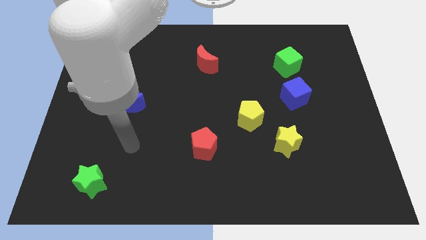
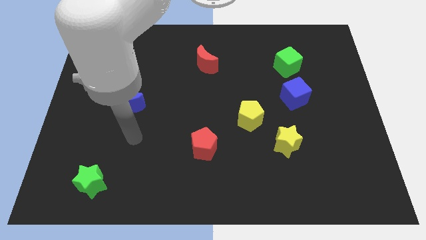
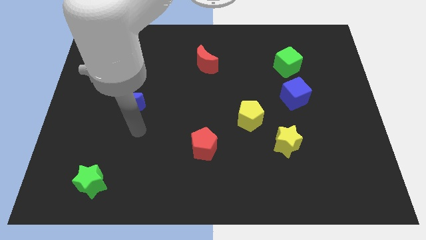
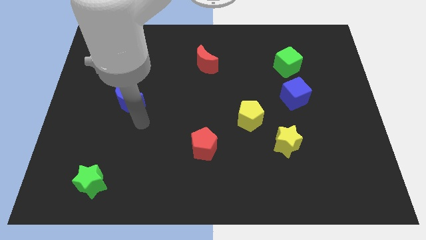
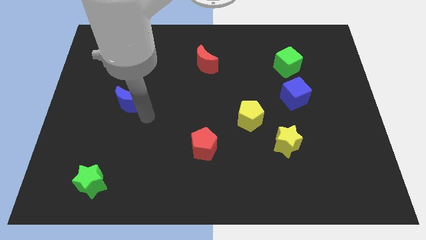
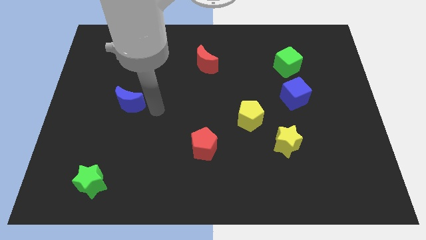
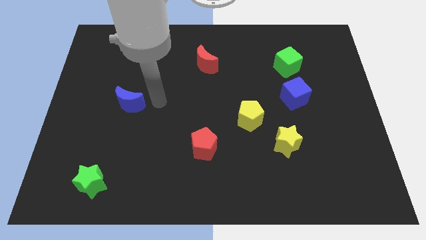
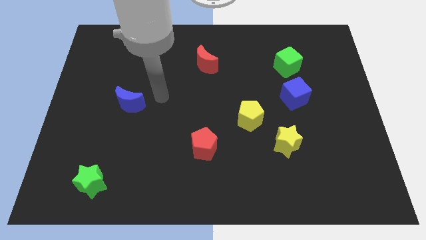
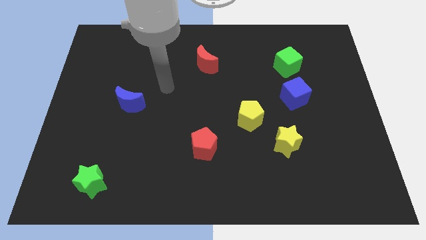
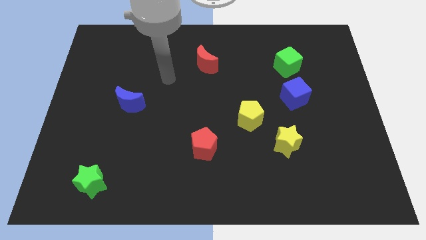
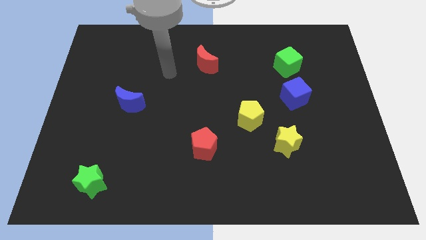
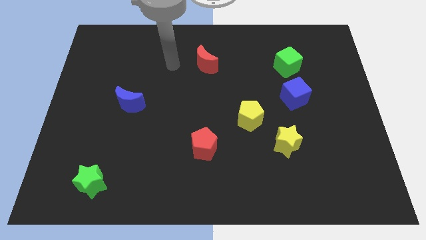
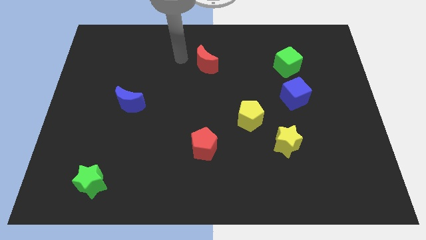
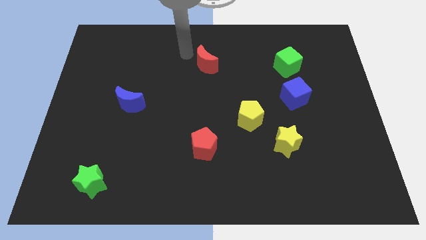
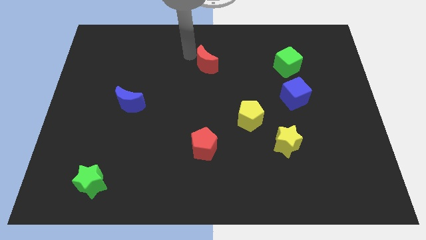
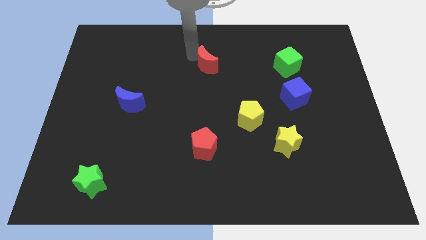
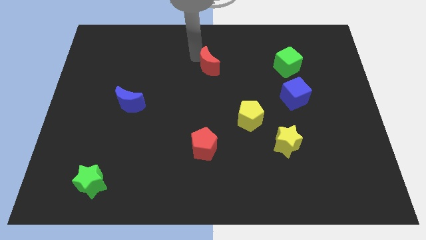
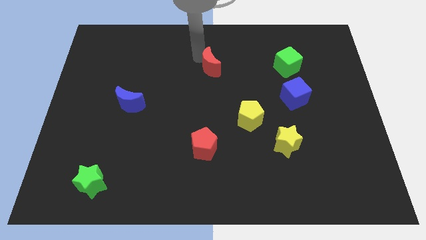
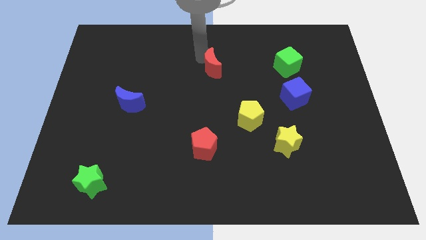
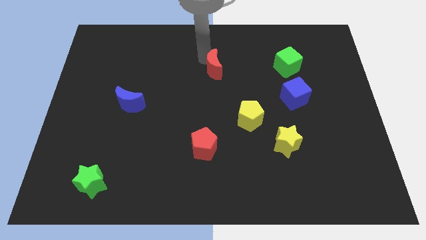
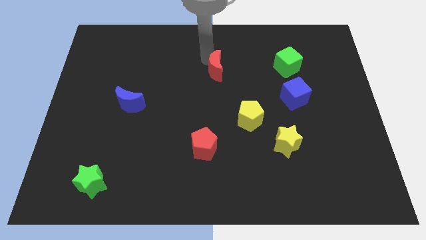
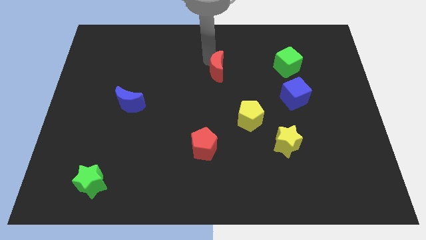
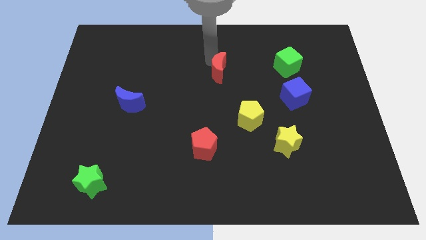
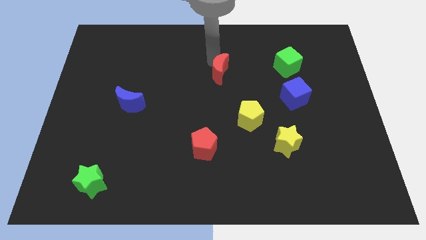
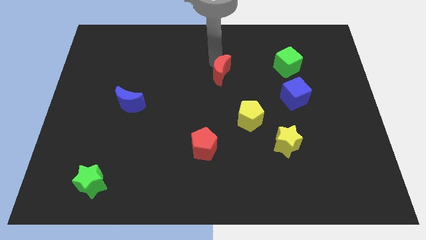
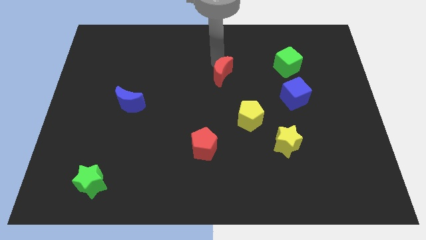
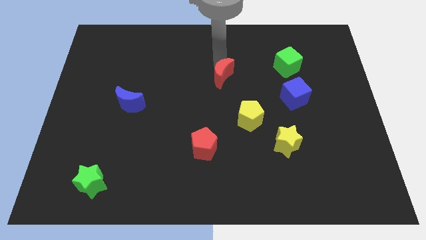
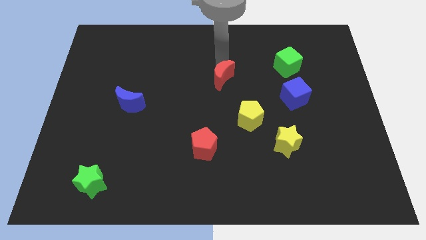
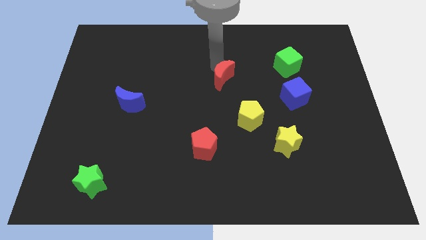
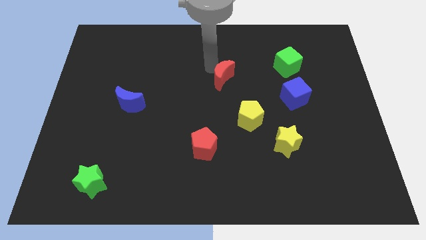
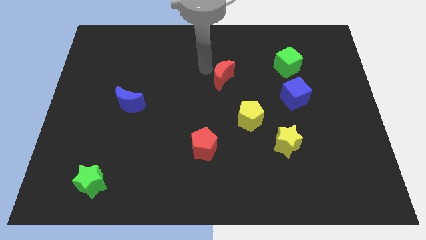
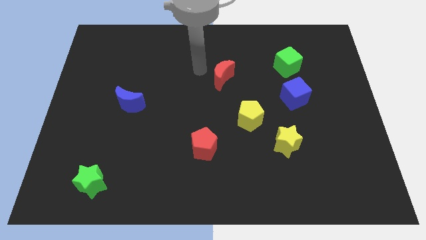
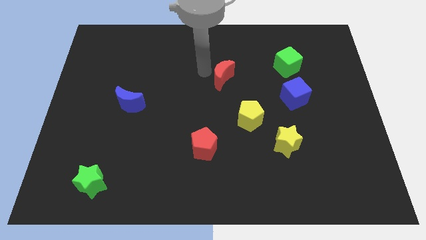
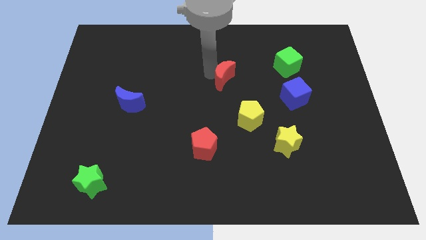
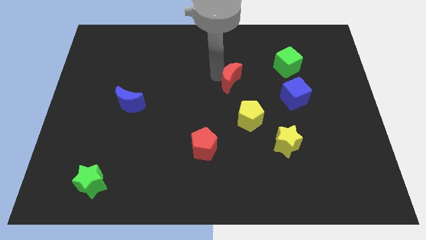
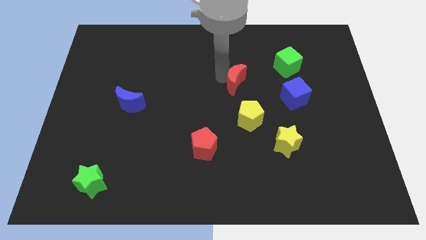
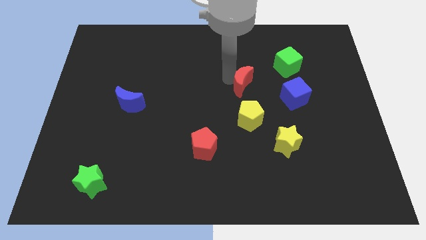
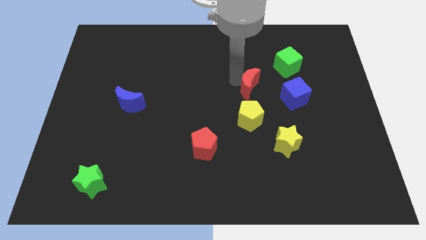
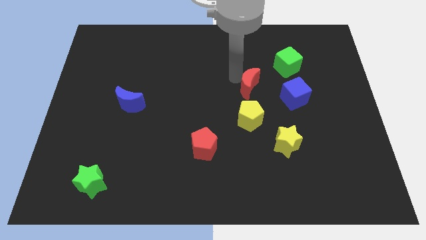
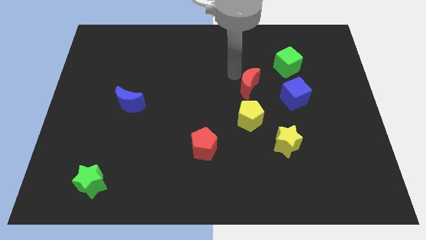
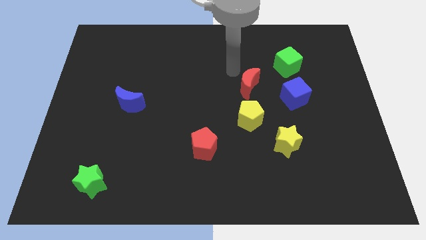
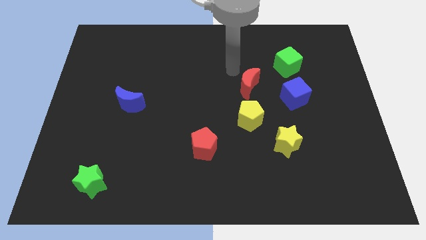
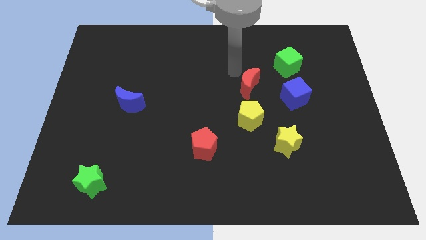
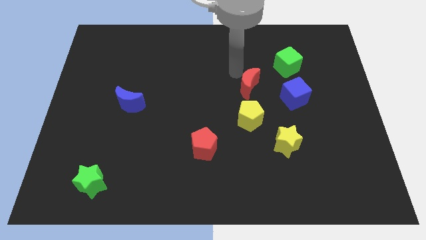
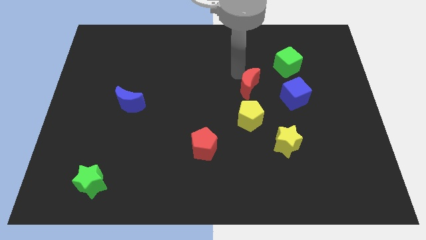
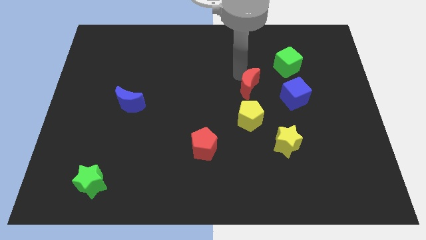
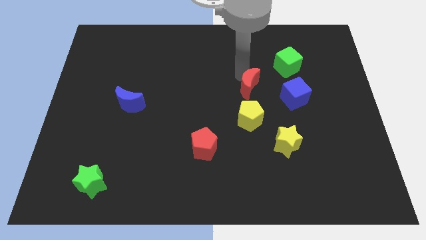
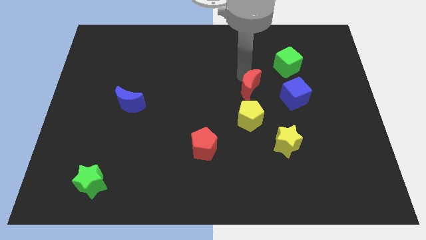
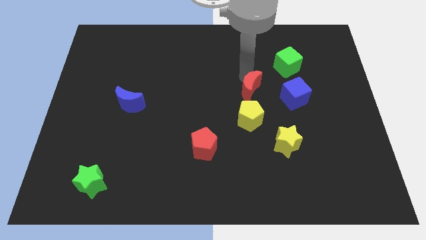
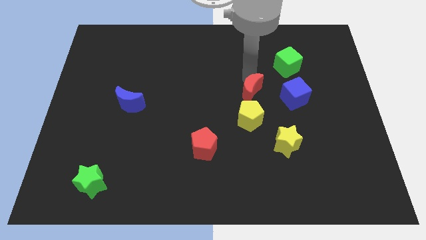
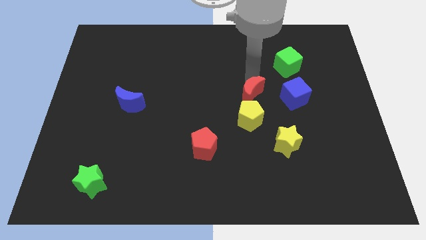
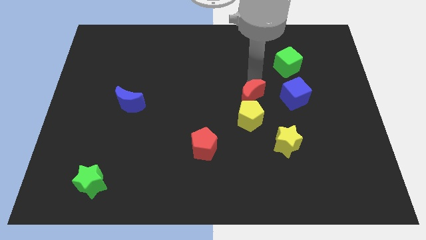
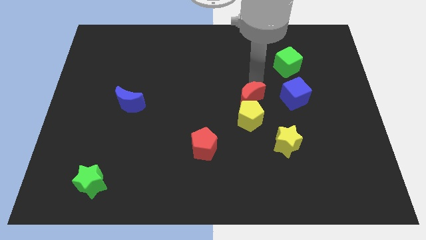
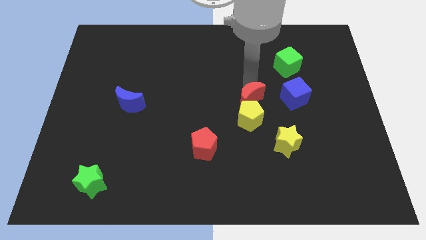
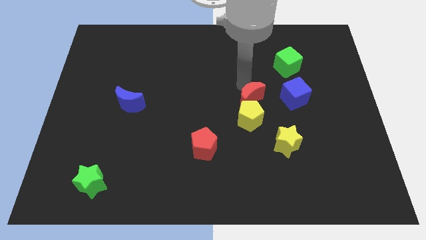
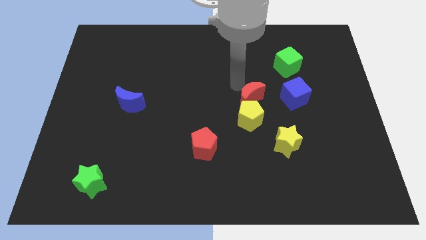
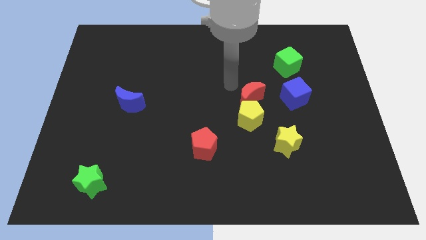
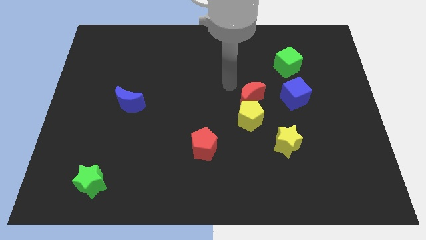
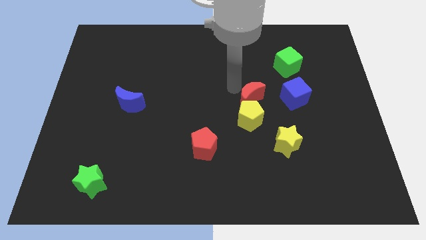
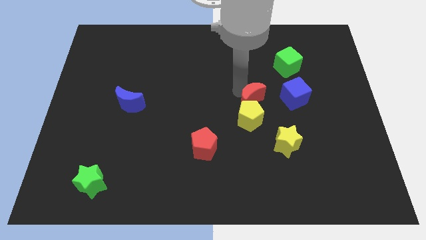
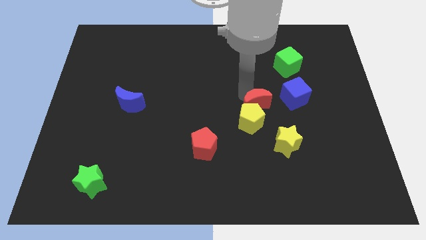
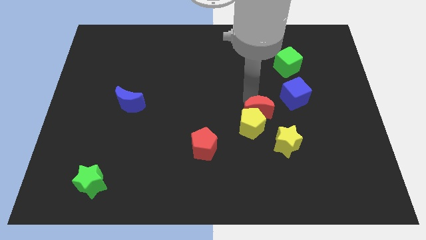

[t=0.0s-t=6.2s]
move the red moon diagonally down and to the left of the blue cube

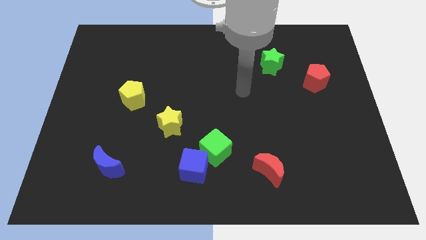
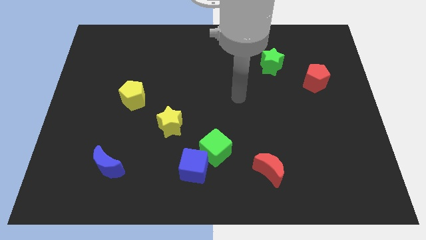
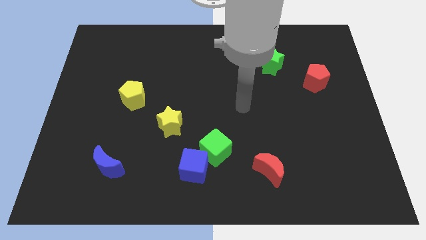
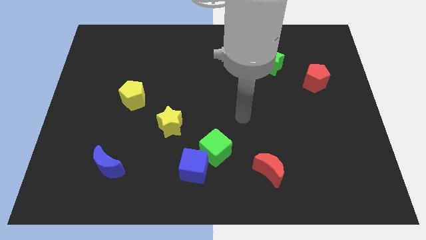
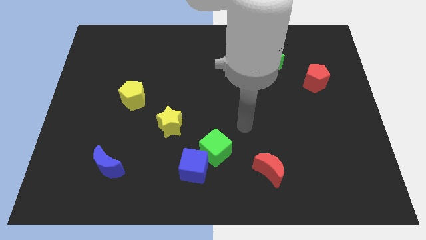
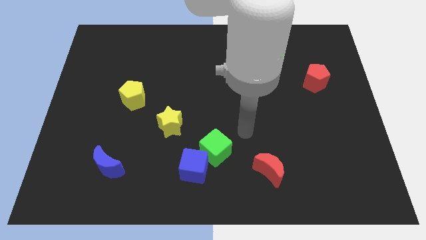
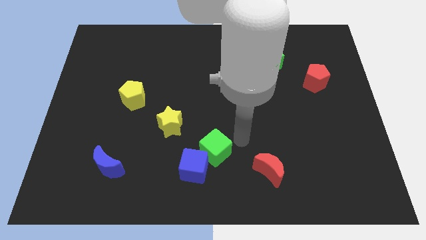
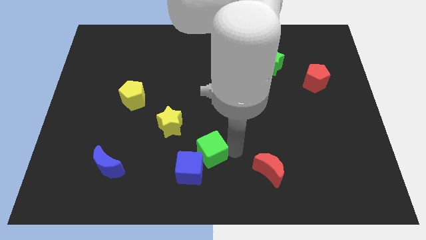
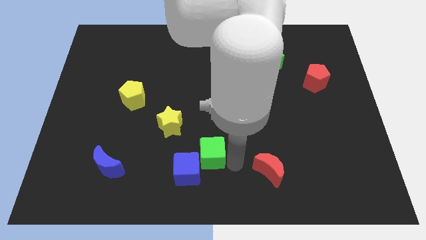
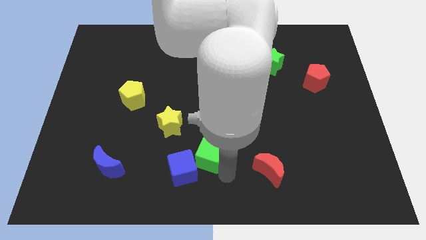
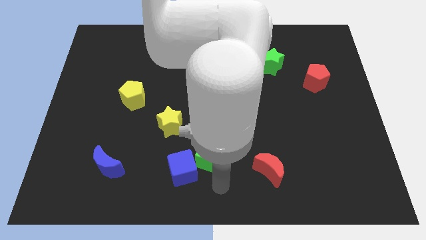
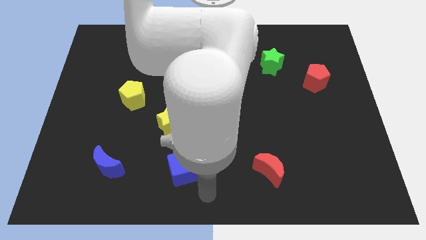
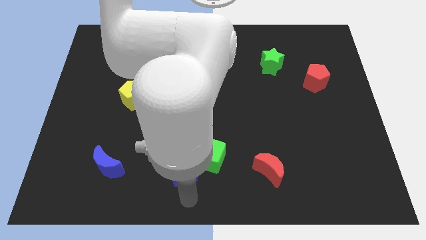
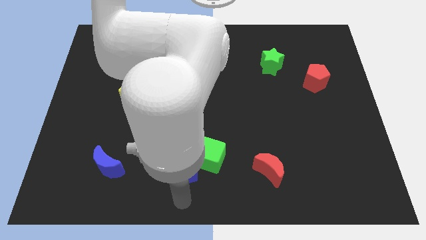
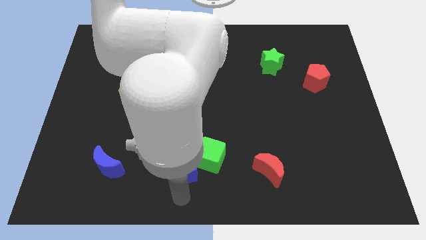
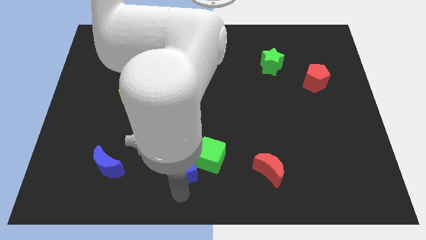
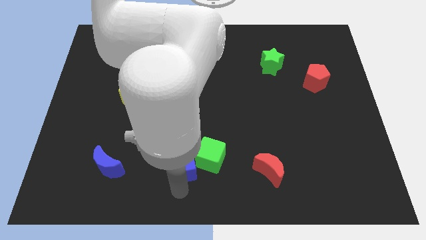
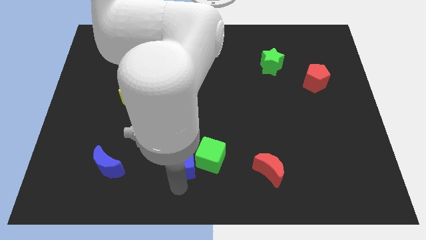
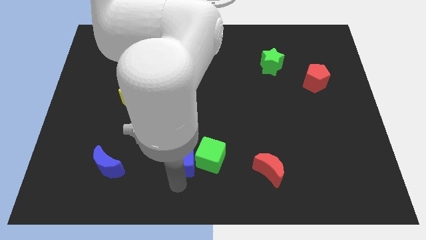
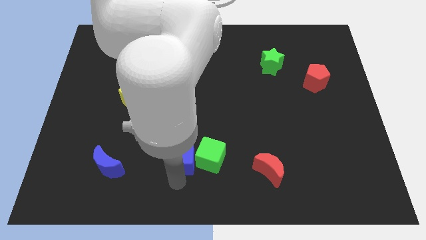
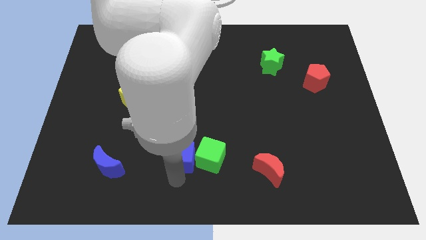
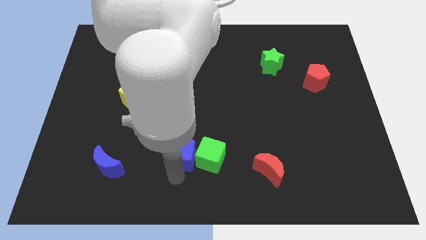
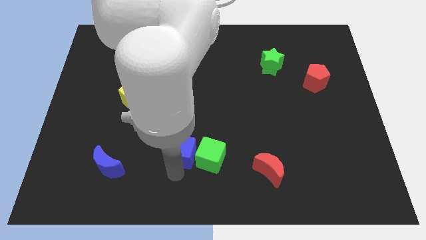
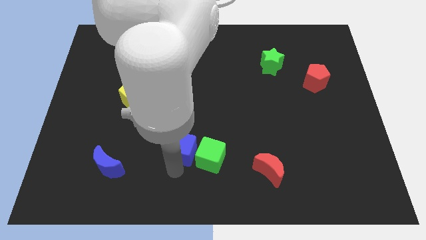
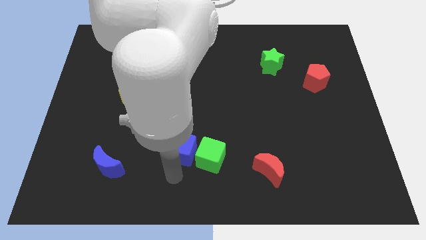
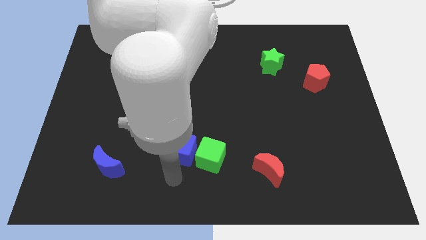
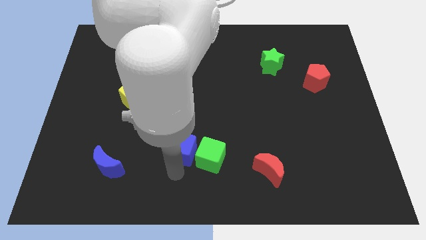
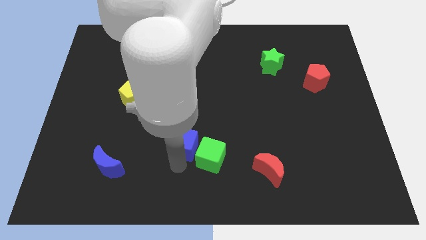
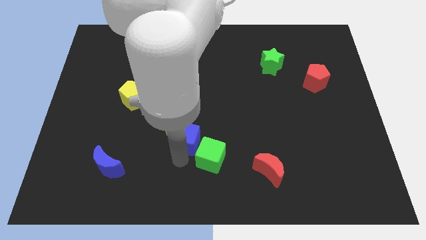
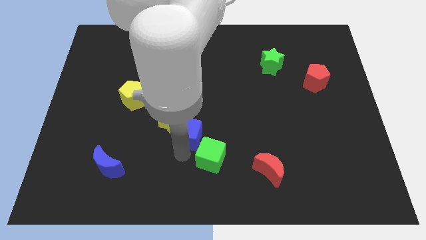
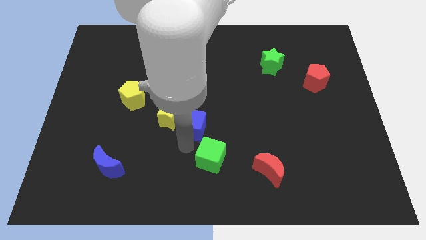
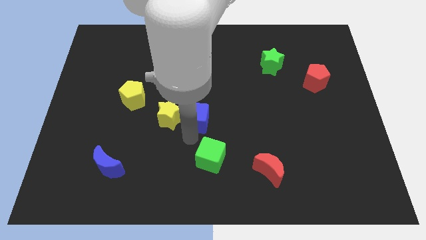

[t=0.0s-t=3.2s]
move the blue cube to the top right of the yellow star
